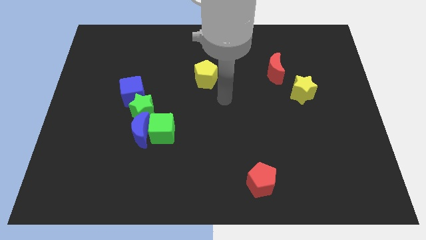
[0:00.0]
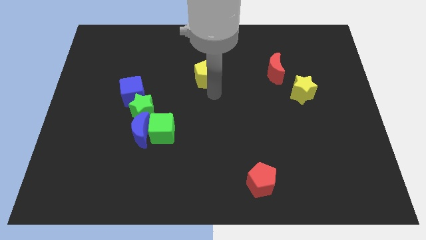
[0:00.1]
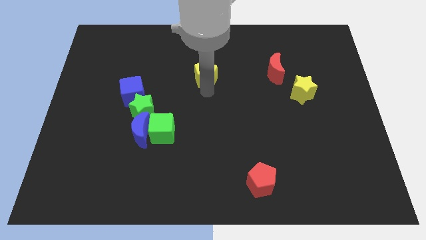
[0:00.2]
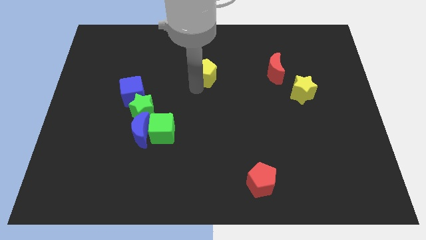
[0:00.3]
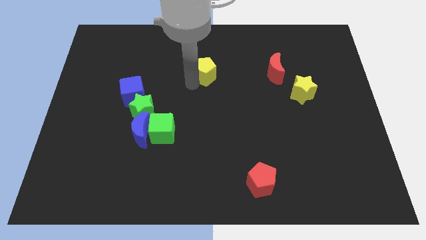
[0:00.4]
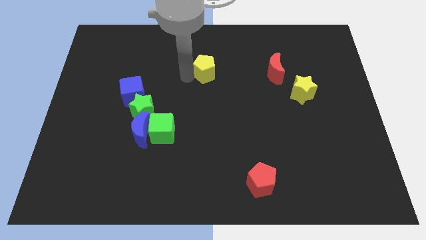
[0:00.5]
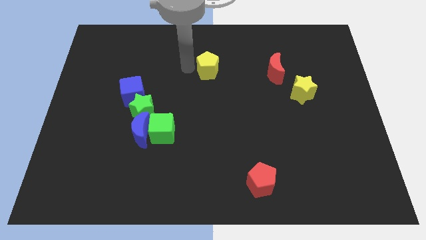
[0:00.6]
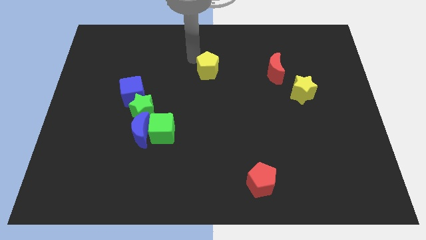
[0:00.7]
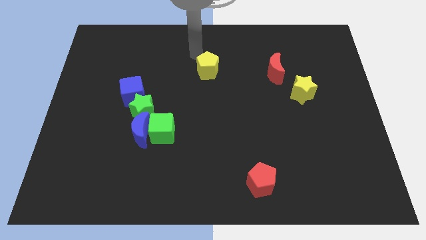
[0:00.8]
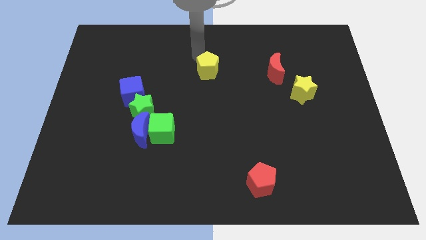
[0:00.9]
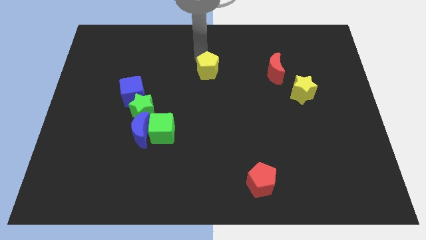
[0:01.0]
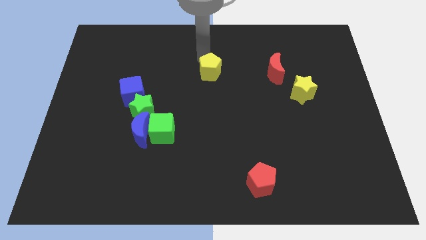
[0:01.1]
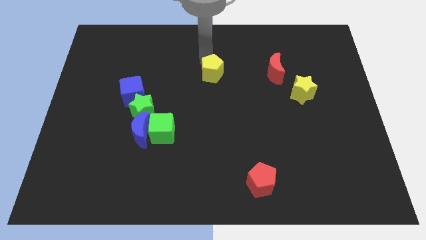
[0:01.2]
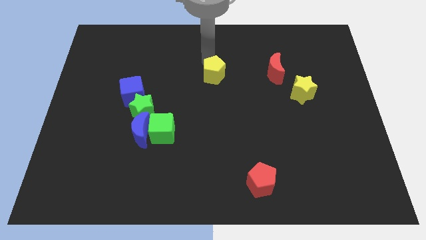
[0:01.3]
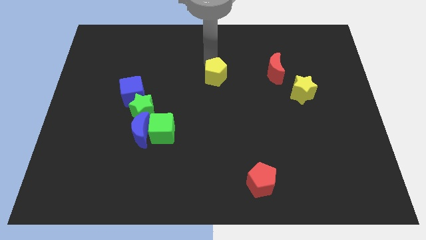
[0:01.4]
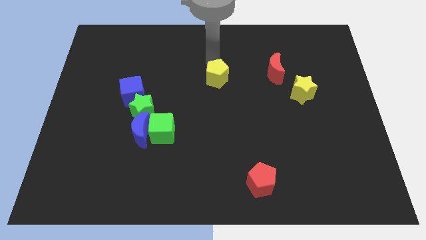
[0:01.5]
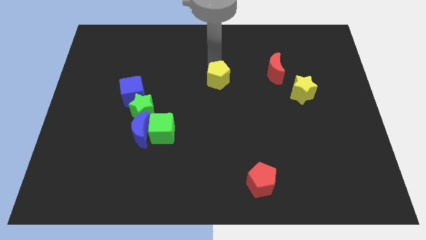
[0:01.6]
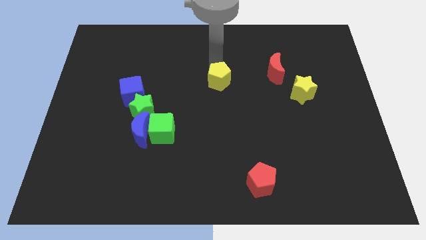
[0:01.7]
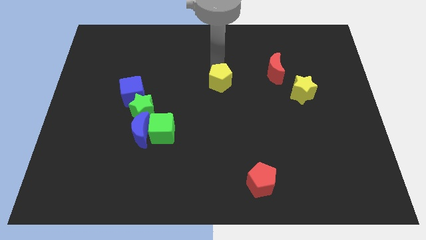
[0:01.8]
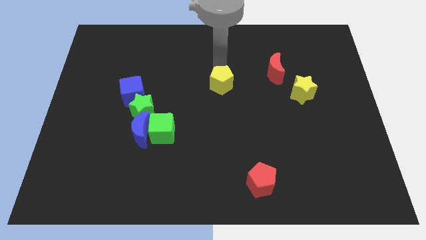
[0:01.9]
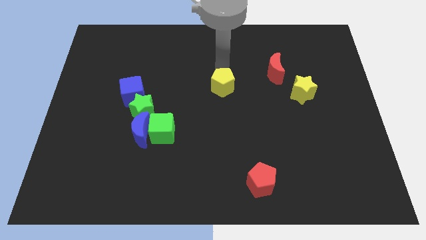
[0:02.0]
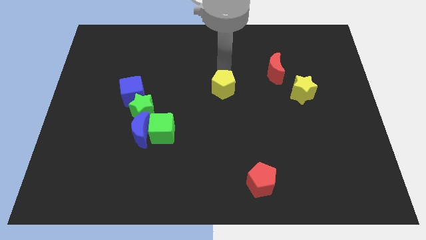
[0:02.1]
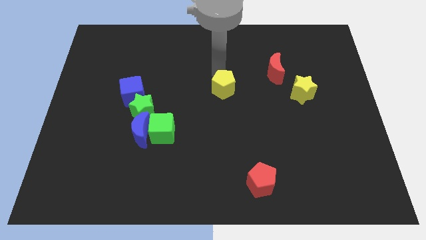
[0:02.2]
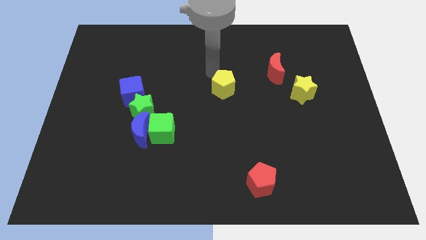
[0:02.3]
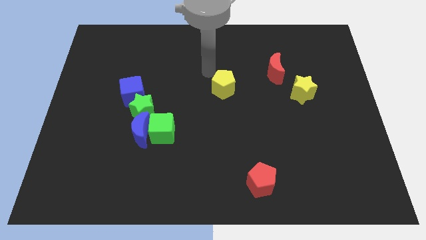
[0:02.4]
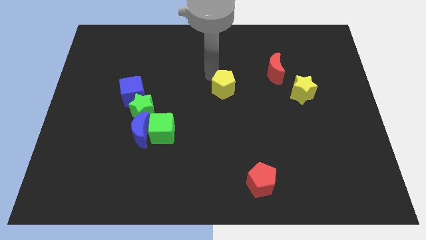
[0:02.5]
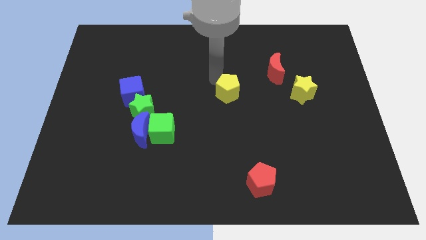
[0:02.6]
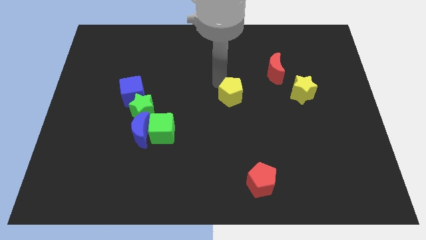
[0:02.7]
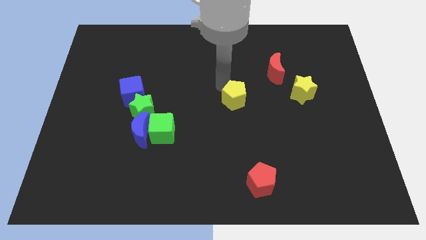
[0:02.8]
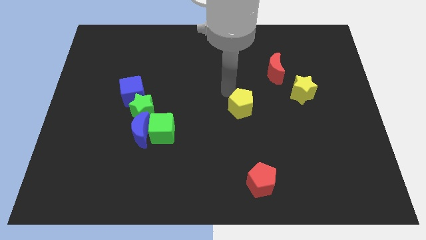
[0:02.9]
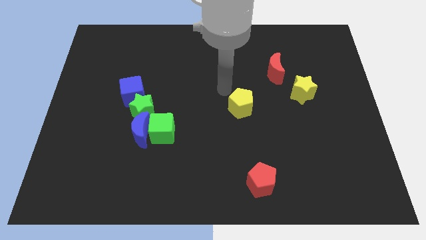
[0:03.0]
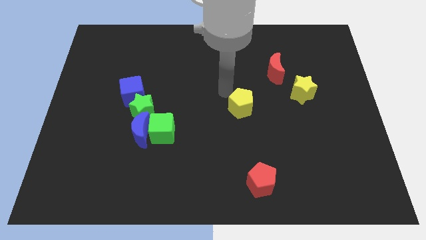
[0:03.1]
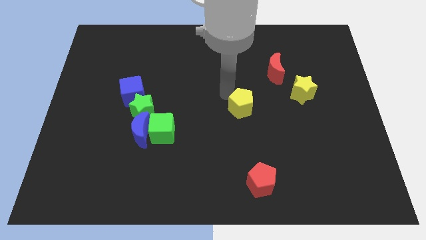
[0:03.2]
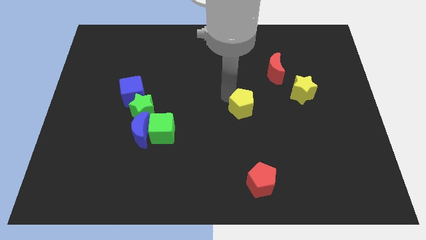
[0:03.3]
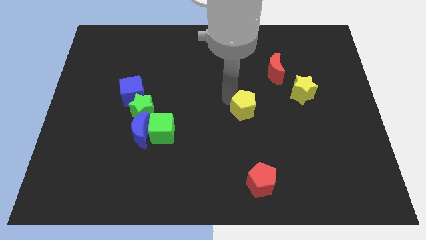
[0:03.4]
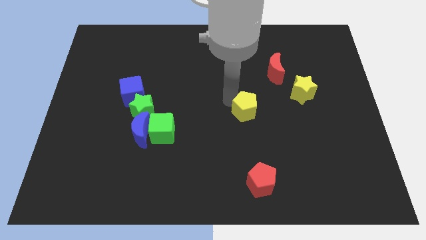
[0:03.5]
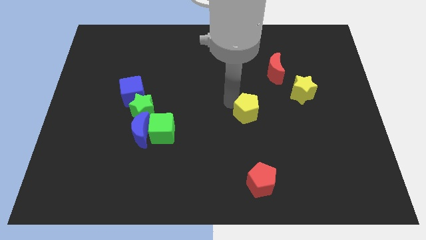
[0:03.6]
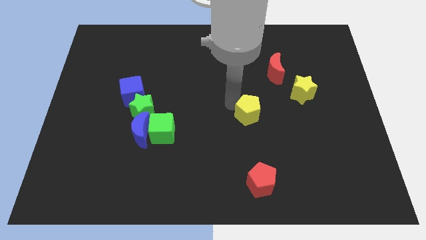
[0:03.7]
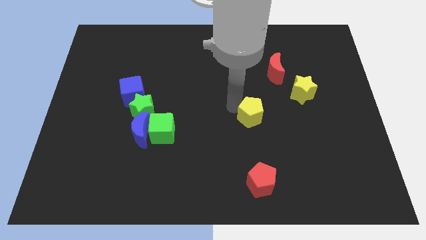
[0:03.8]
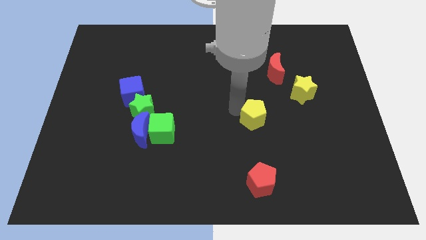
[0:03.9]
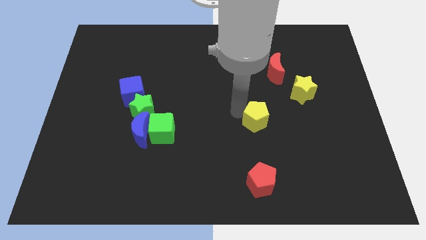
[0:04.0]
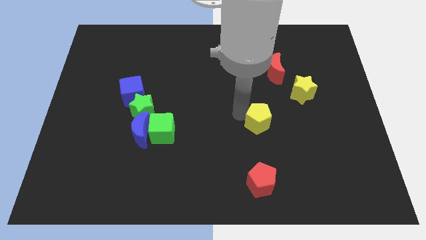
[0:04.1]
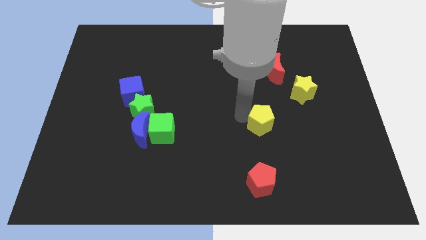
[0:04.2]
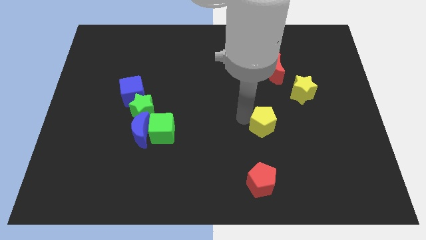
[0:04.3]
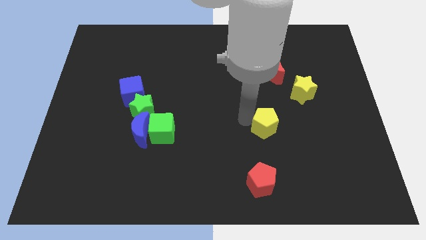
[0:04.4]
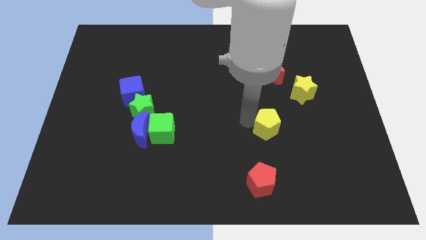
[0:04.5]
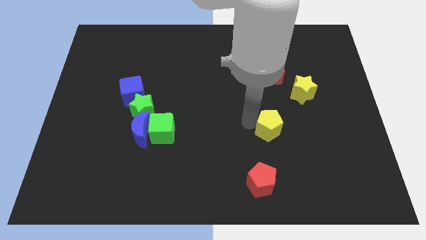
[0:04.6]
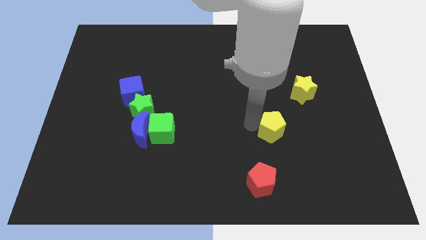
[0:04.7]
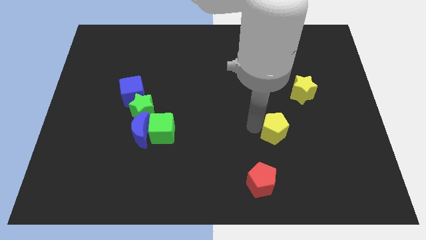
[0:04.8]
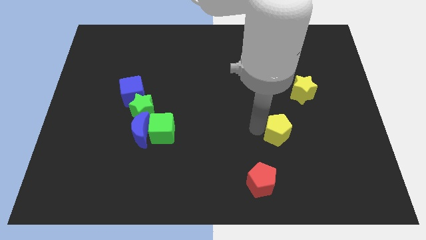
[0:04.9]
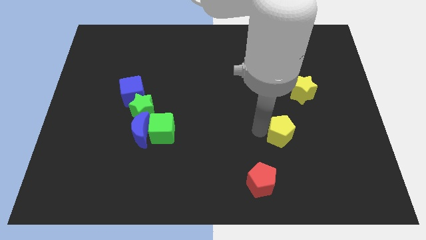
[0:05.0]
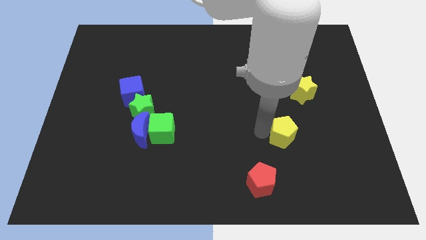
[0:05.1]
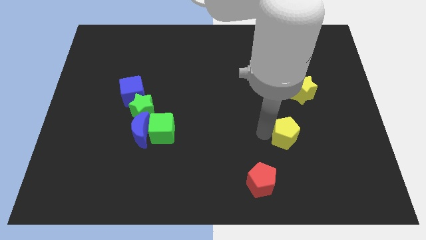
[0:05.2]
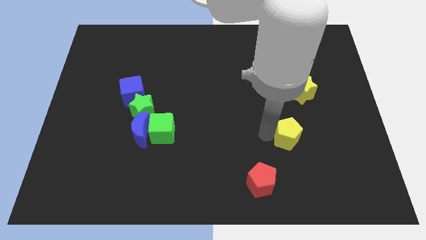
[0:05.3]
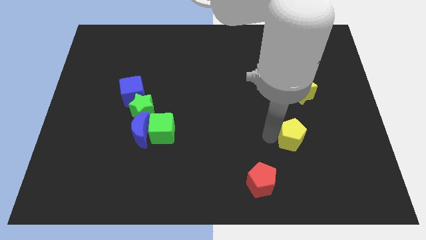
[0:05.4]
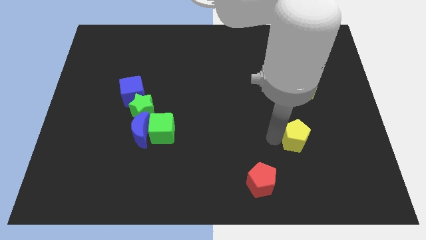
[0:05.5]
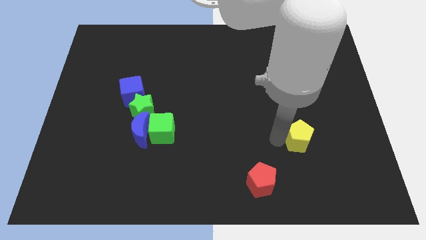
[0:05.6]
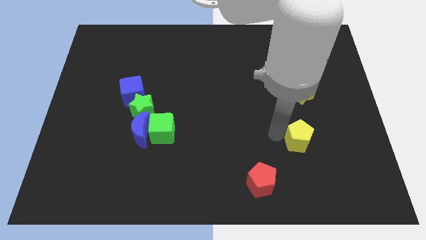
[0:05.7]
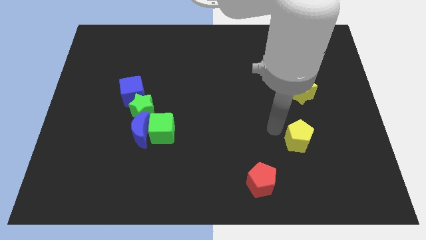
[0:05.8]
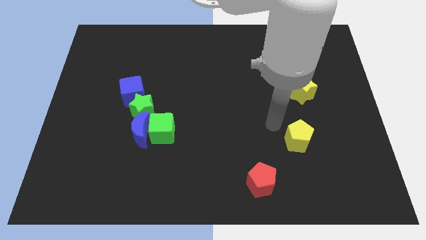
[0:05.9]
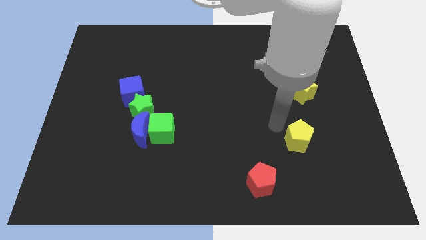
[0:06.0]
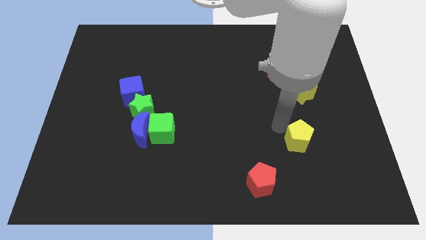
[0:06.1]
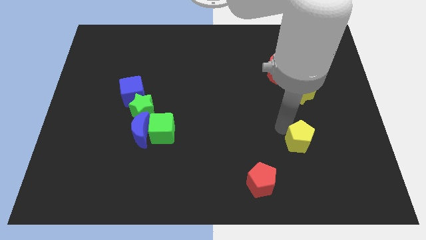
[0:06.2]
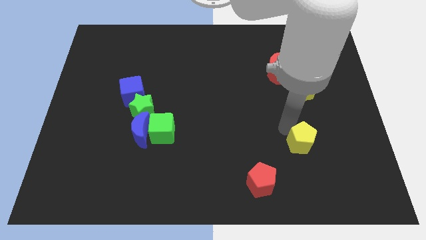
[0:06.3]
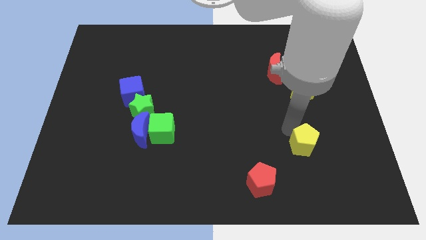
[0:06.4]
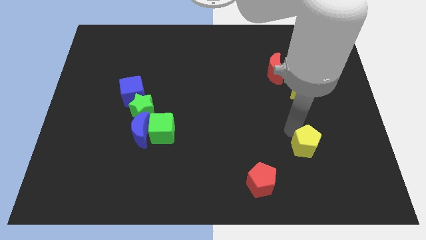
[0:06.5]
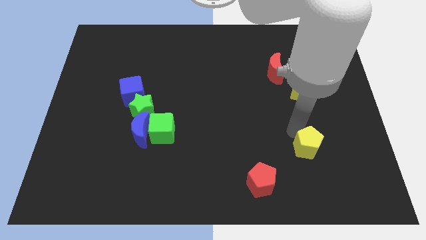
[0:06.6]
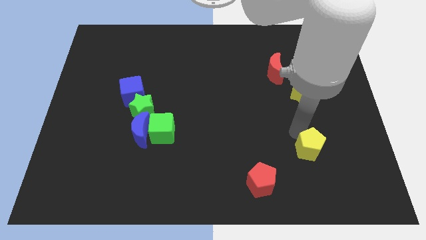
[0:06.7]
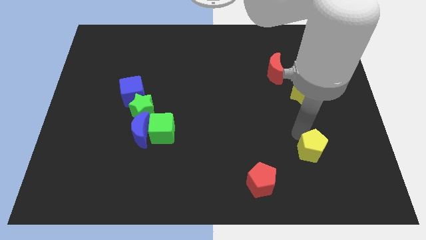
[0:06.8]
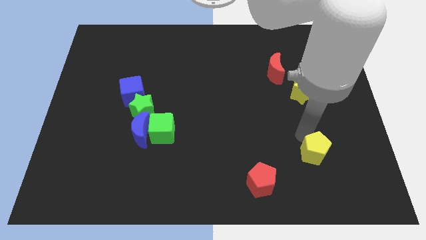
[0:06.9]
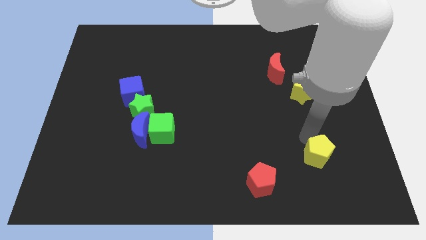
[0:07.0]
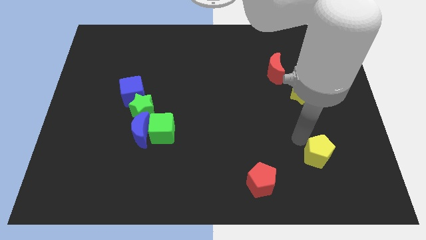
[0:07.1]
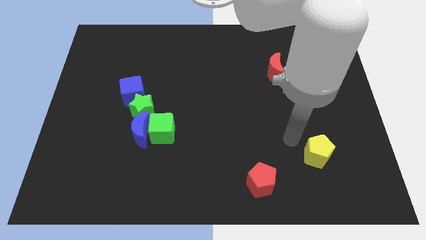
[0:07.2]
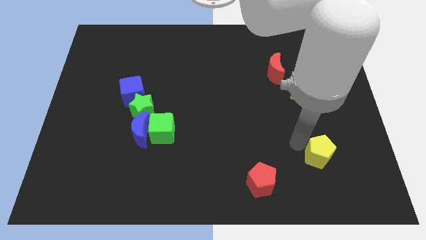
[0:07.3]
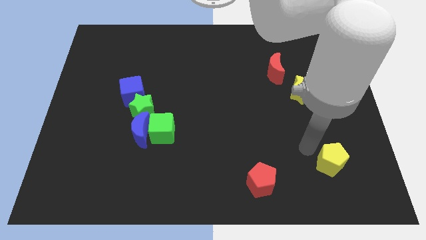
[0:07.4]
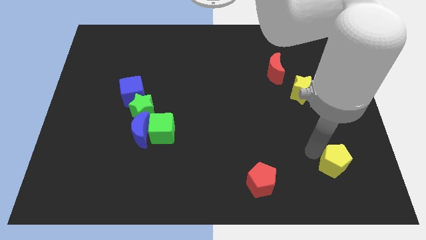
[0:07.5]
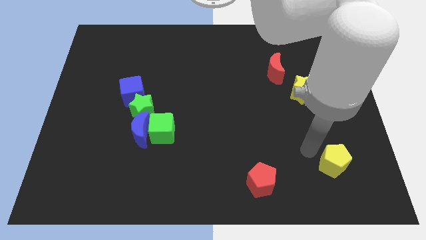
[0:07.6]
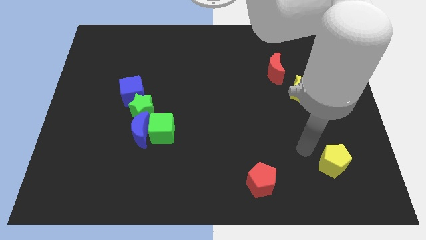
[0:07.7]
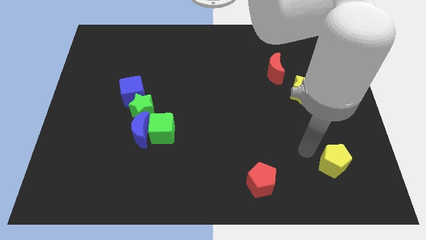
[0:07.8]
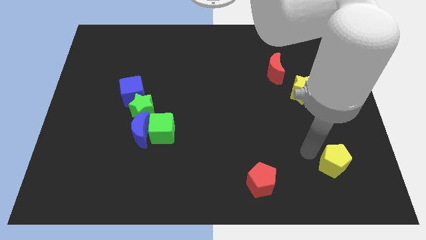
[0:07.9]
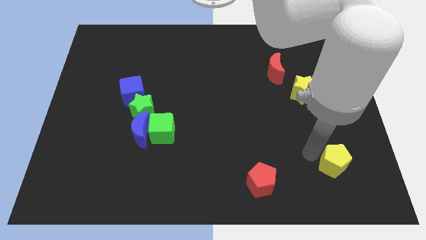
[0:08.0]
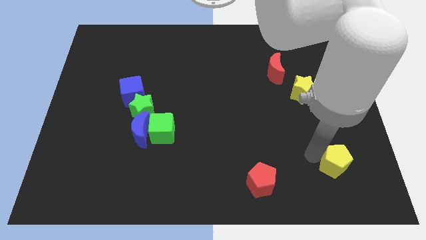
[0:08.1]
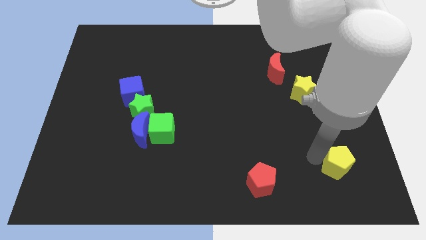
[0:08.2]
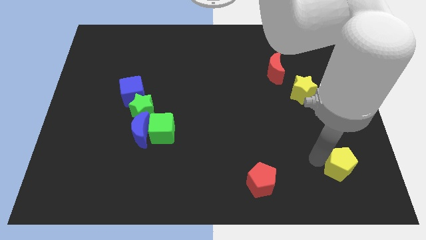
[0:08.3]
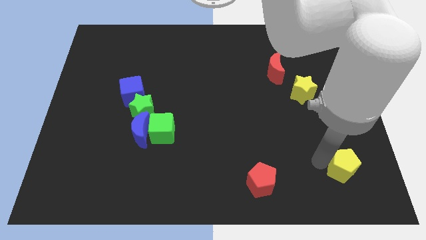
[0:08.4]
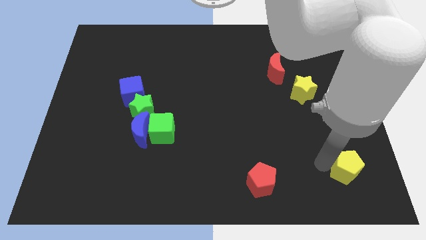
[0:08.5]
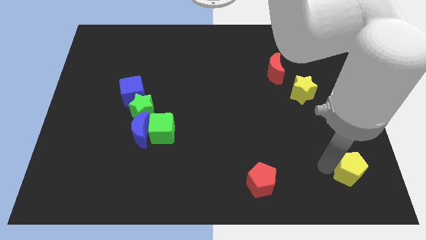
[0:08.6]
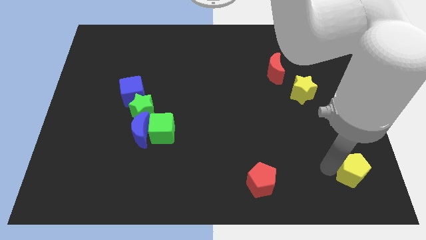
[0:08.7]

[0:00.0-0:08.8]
put the yellow pentagon to the bottom right of the board
